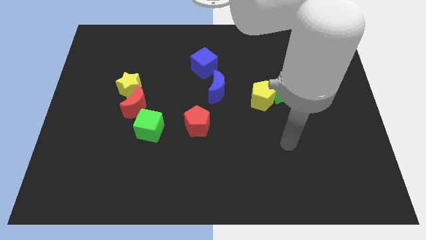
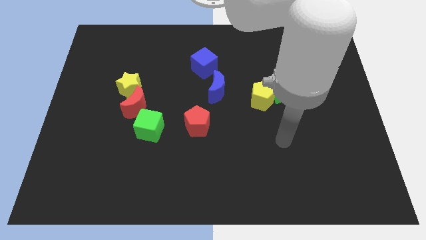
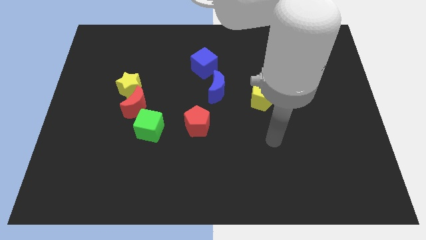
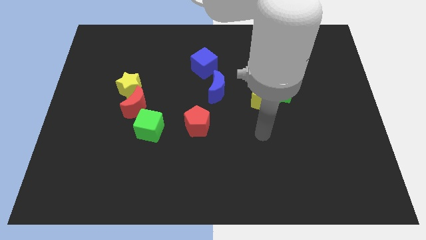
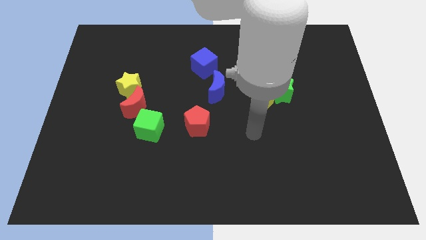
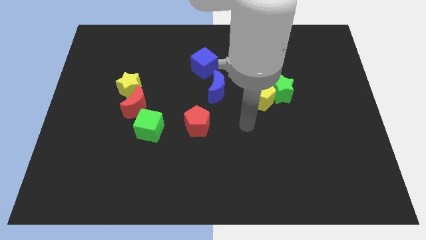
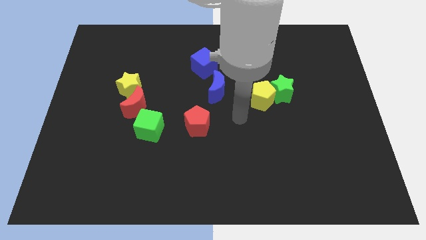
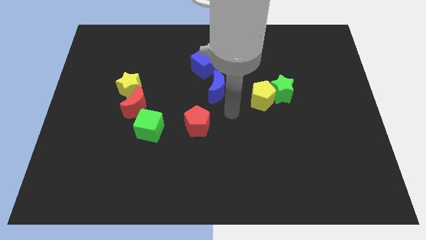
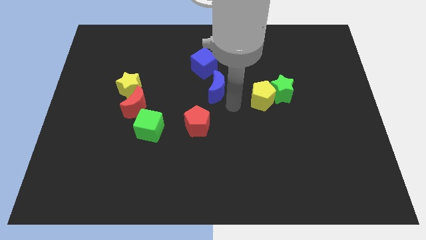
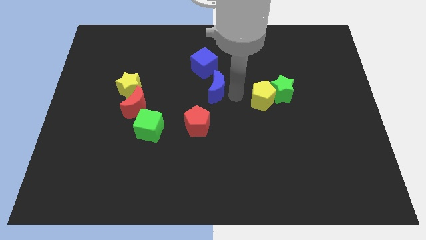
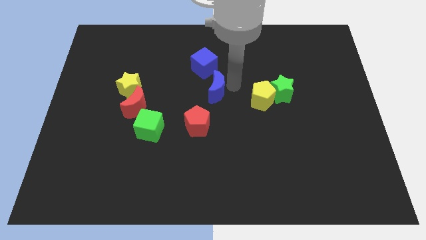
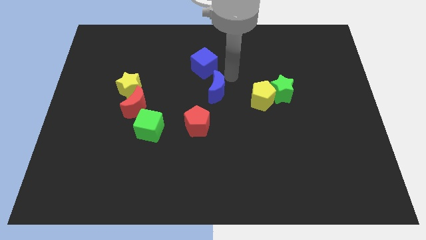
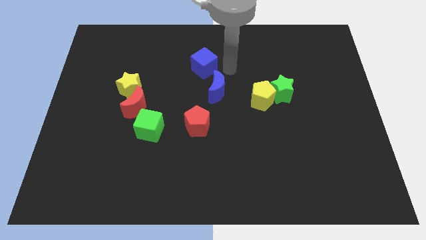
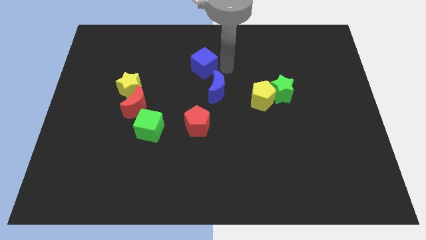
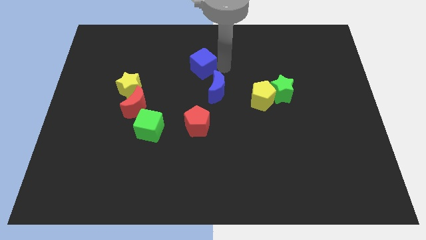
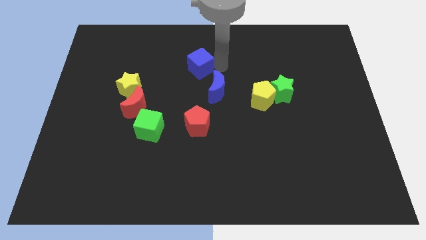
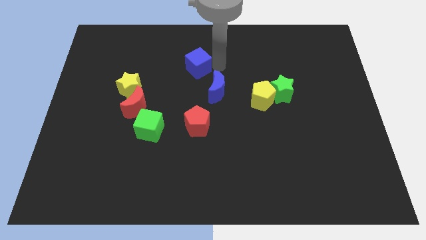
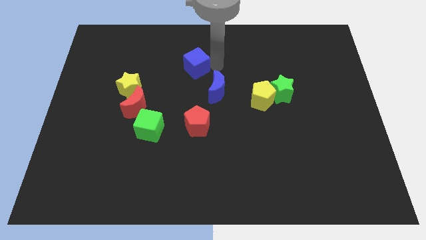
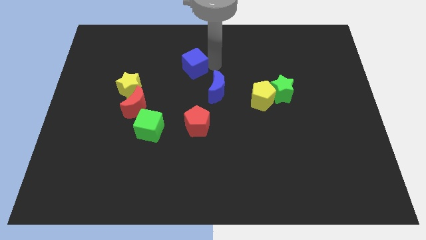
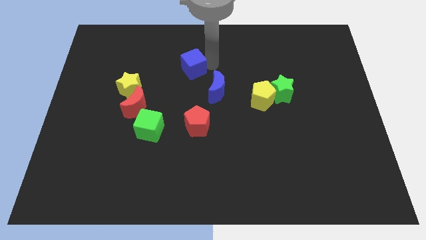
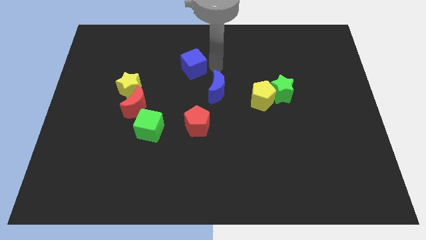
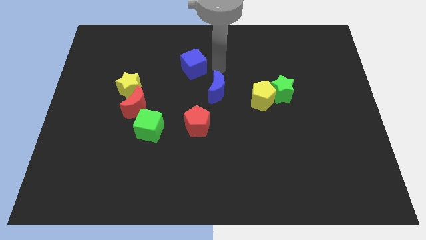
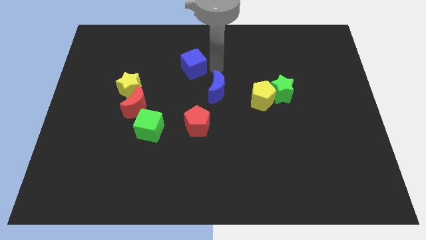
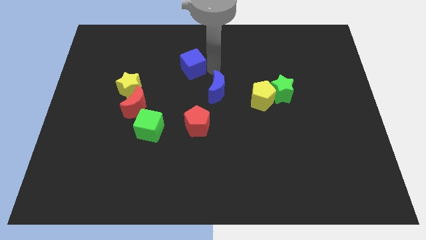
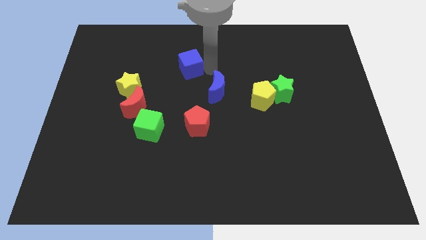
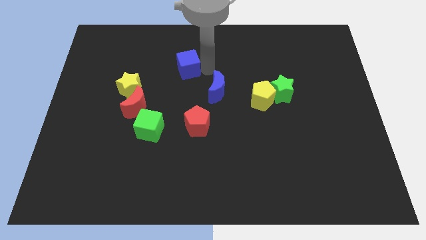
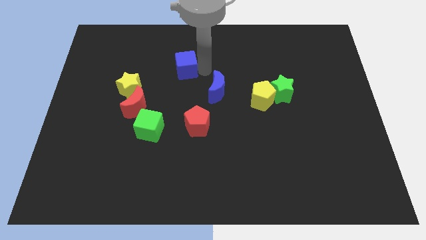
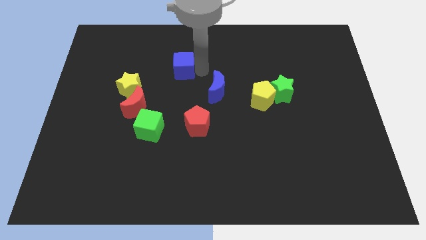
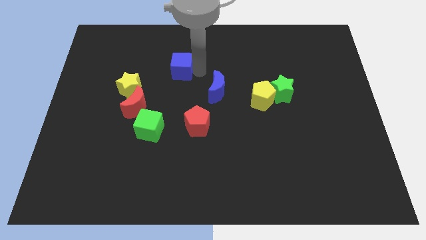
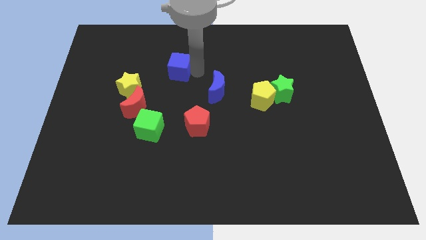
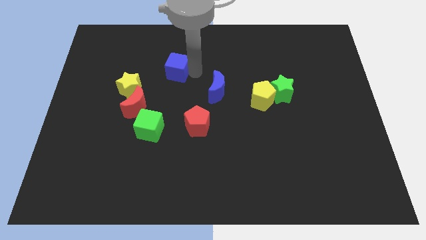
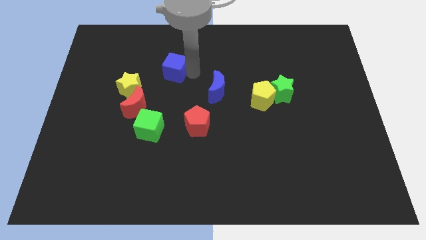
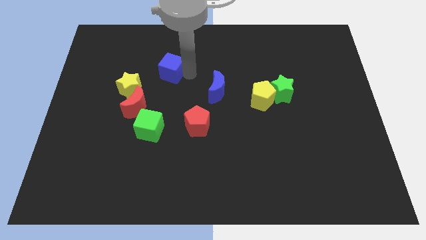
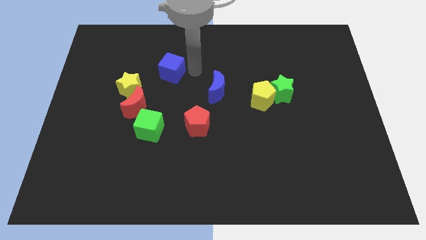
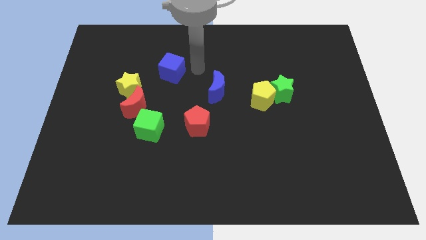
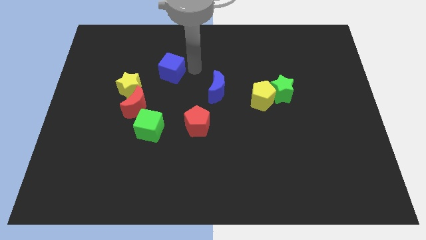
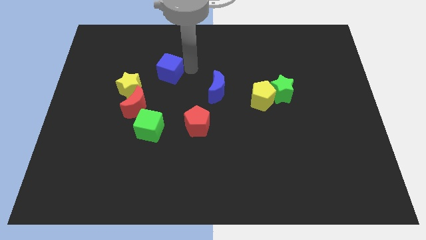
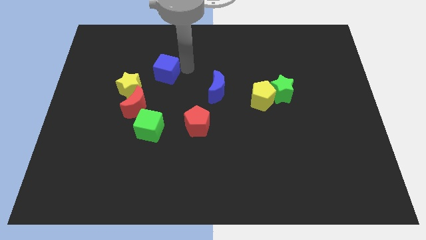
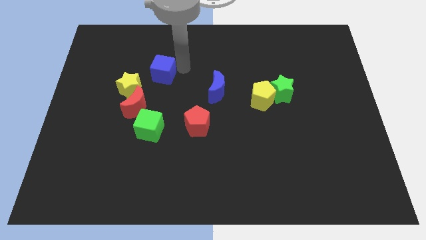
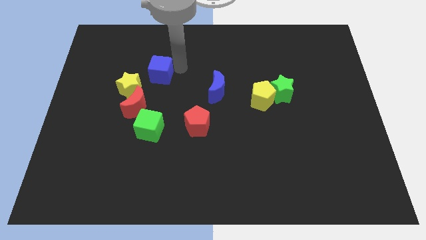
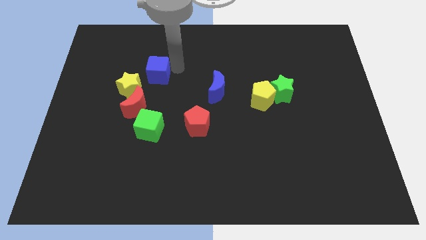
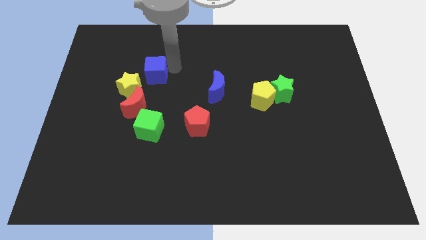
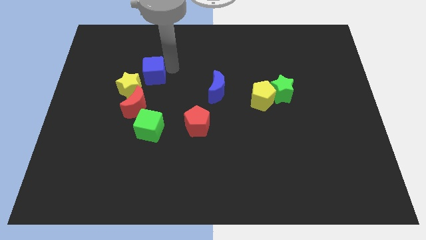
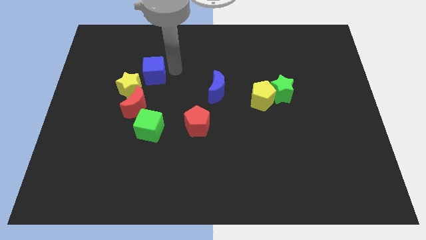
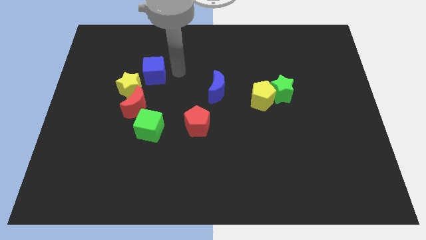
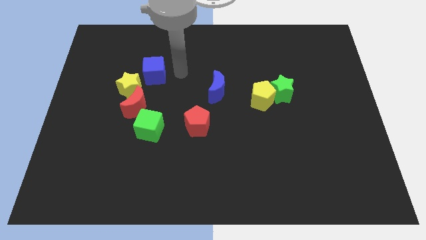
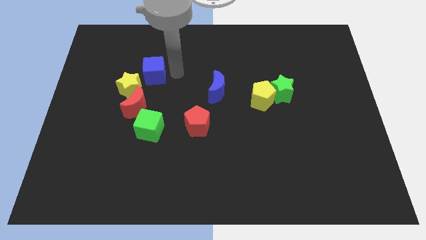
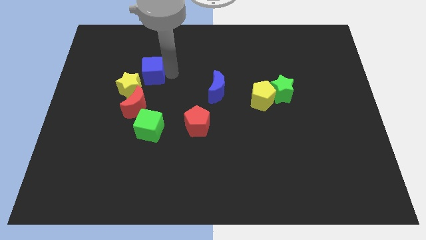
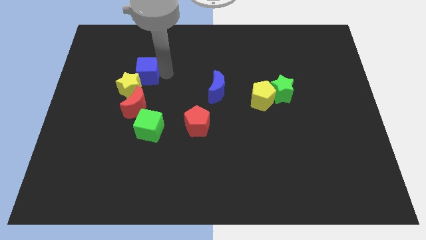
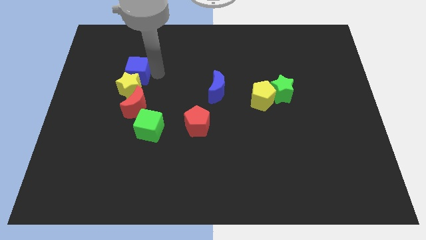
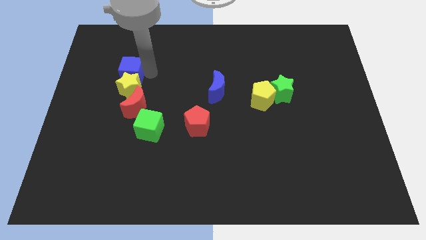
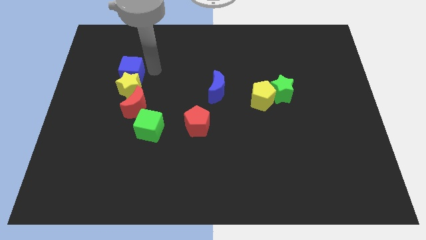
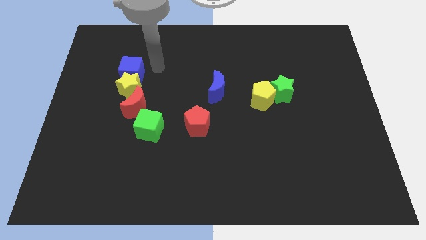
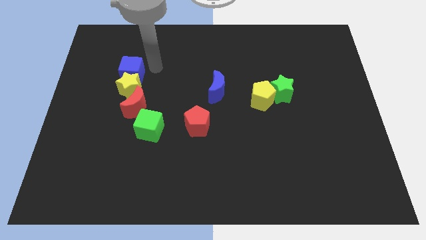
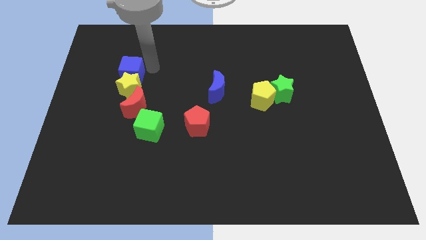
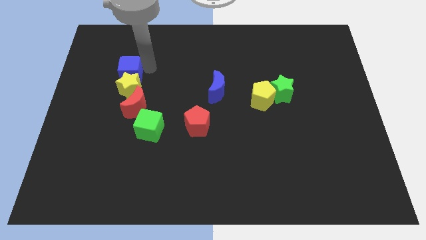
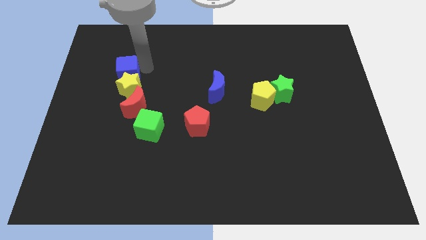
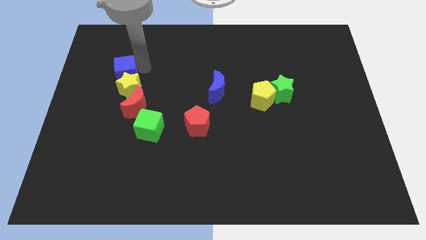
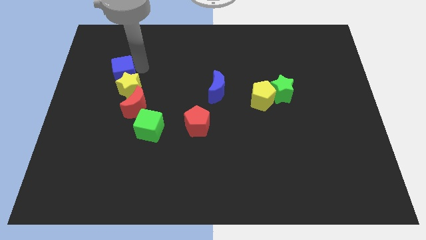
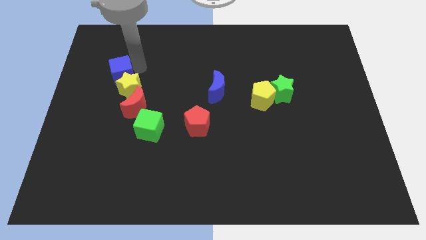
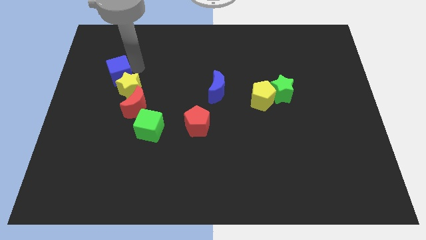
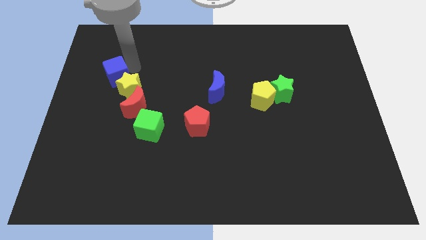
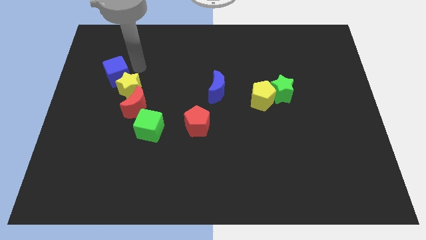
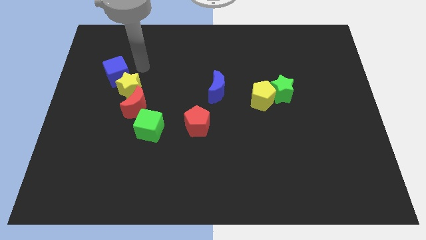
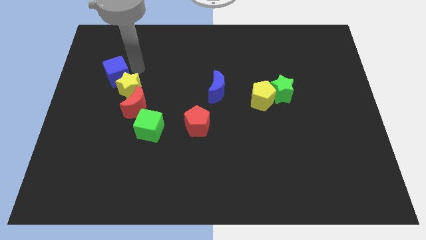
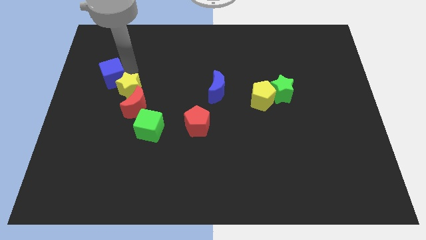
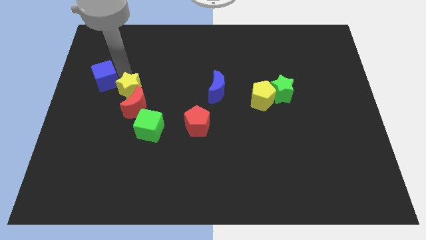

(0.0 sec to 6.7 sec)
push the blue cube to the center left
